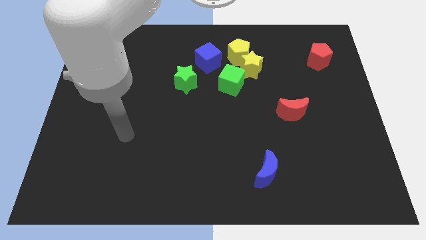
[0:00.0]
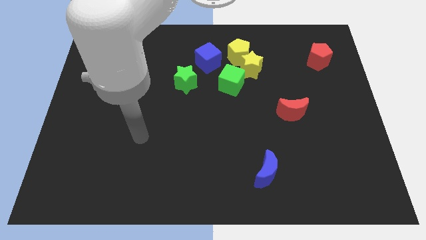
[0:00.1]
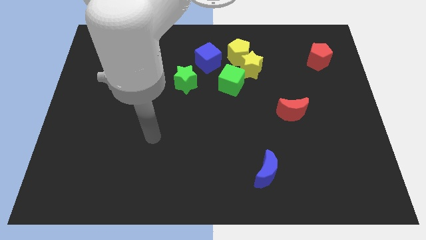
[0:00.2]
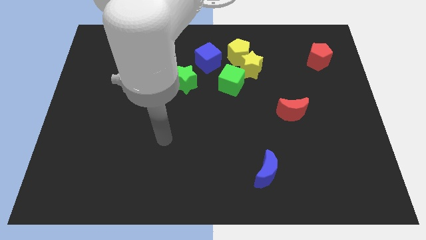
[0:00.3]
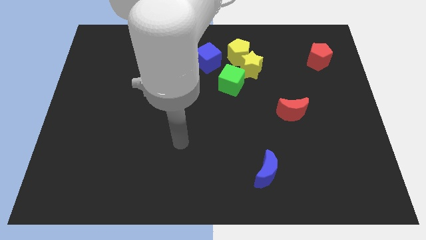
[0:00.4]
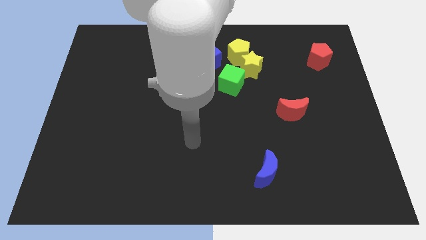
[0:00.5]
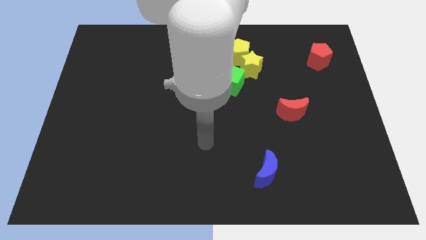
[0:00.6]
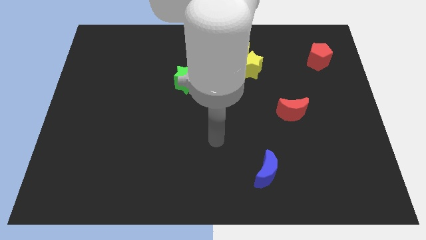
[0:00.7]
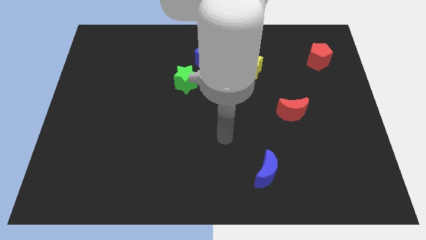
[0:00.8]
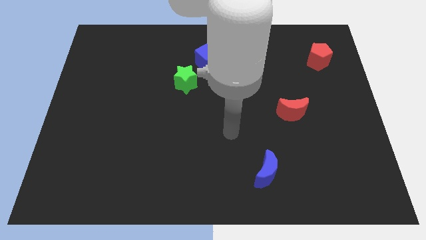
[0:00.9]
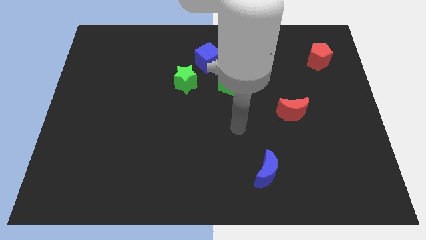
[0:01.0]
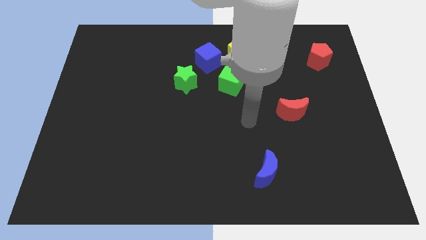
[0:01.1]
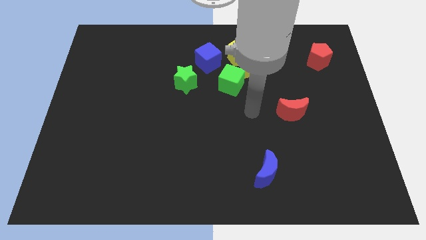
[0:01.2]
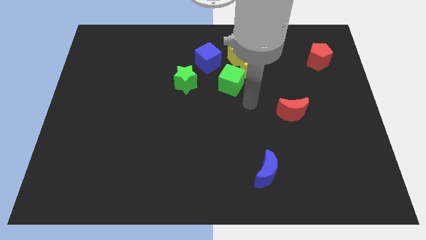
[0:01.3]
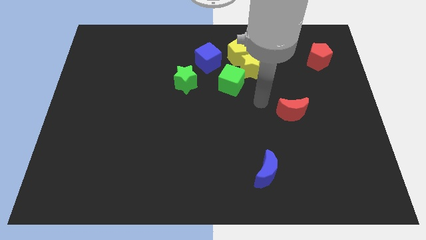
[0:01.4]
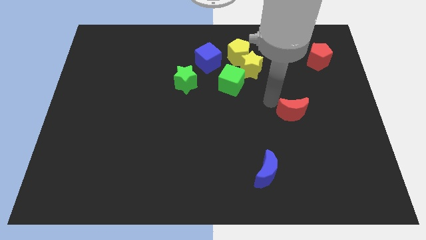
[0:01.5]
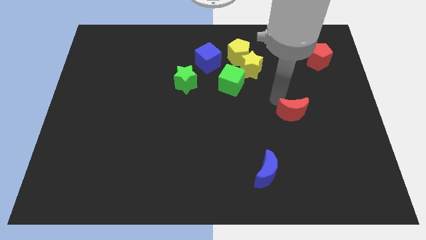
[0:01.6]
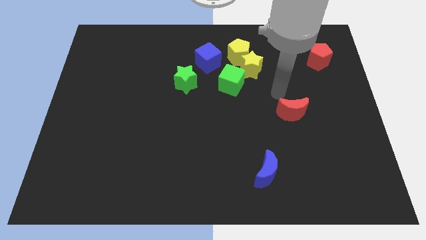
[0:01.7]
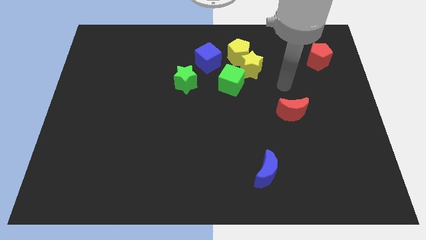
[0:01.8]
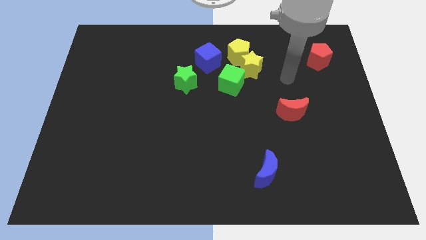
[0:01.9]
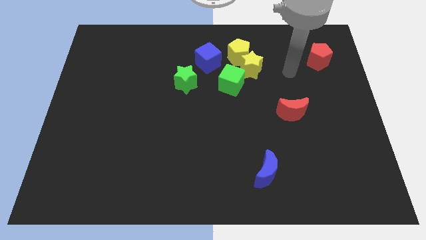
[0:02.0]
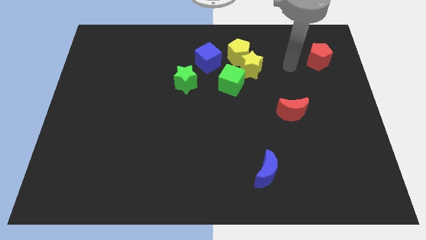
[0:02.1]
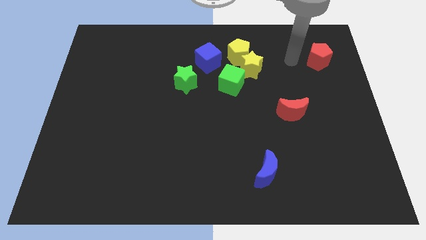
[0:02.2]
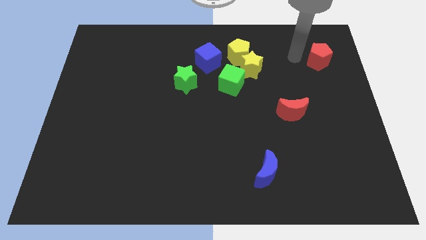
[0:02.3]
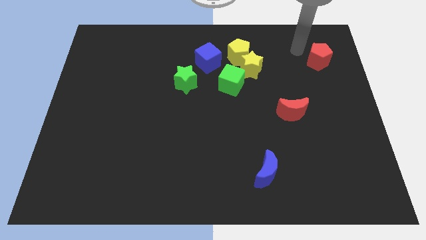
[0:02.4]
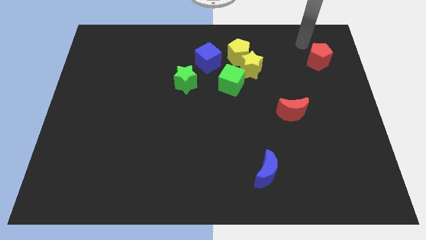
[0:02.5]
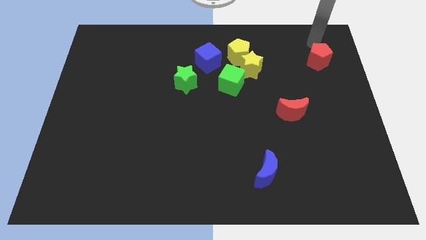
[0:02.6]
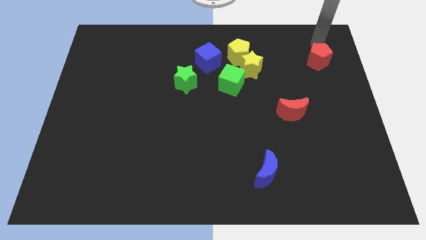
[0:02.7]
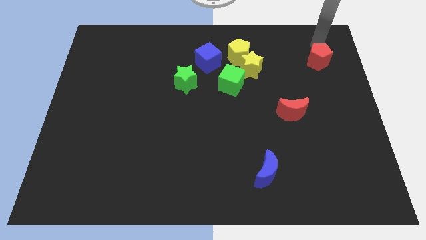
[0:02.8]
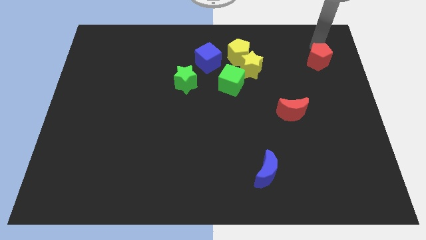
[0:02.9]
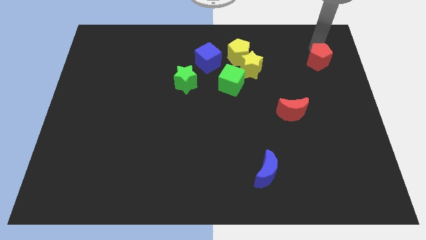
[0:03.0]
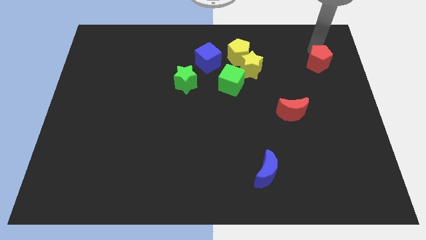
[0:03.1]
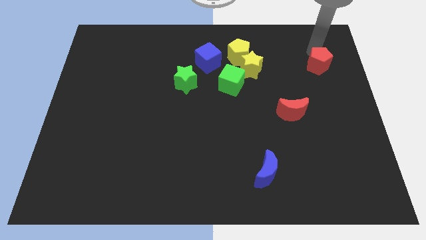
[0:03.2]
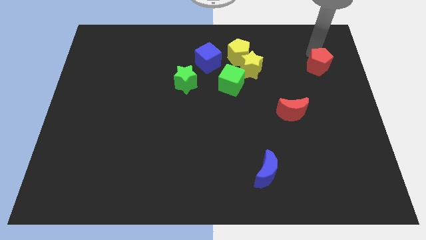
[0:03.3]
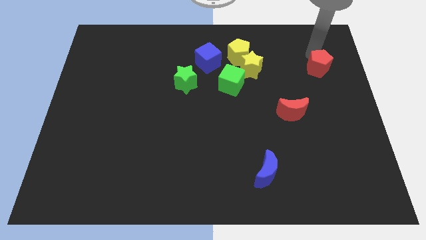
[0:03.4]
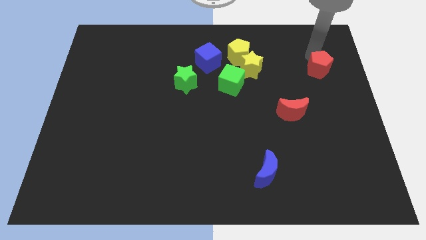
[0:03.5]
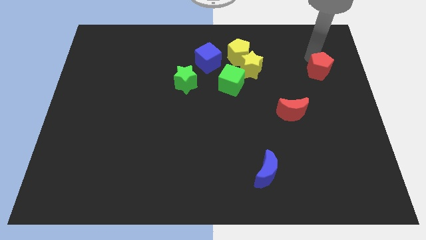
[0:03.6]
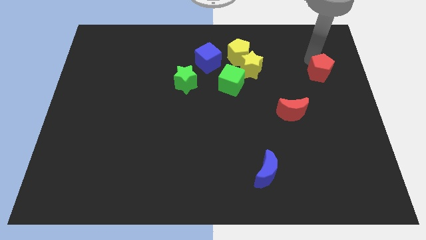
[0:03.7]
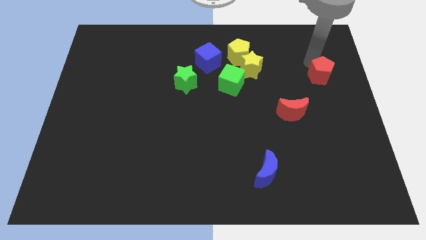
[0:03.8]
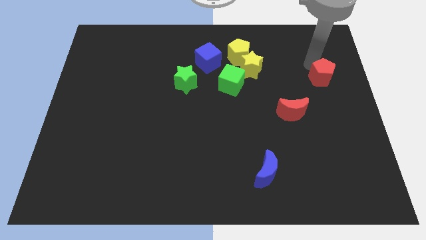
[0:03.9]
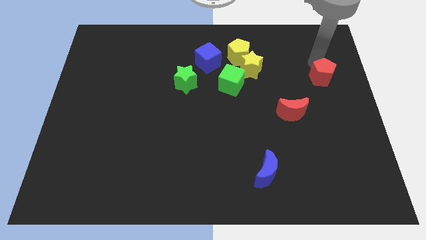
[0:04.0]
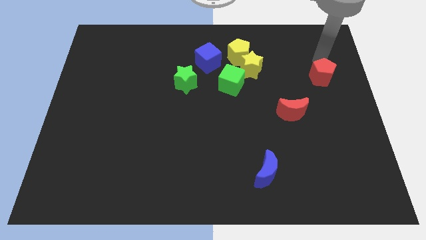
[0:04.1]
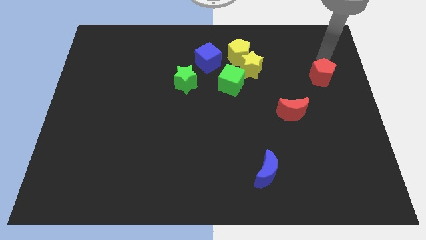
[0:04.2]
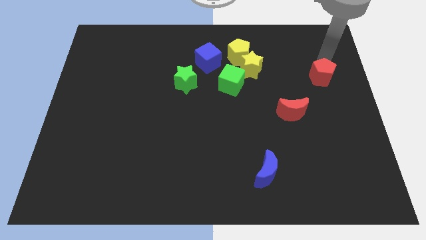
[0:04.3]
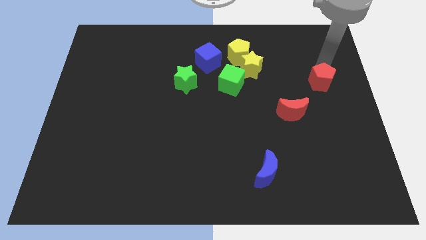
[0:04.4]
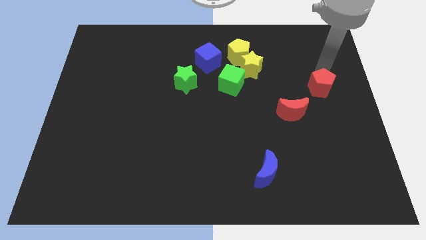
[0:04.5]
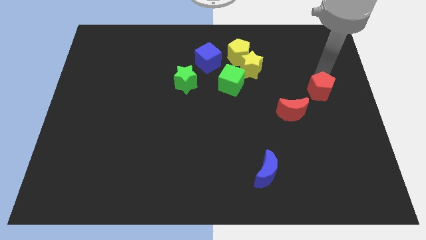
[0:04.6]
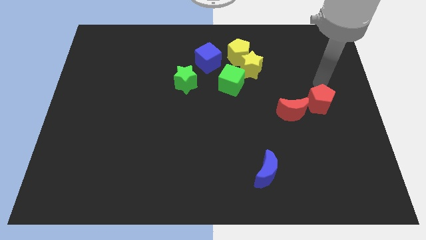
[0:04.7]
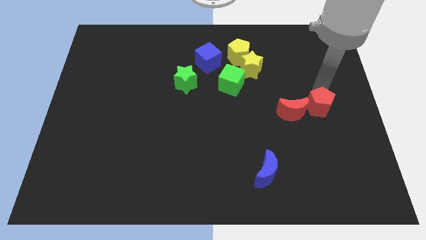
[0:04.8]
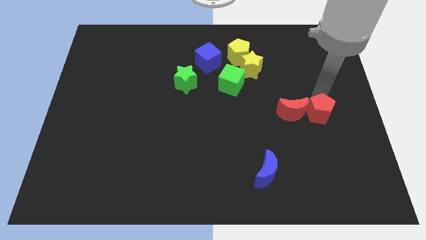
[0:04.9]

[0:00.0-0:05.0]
slide the red pentagon to the bottom right of the red moon

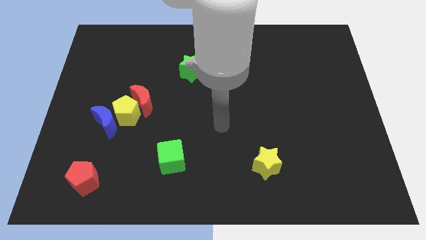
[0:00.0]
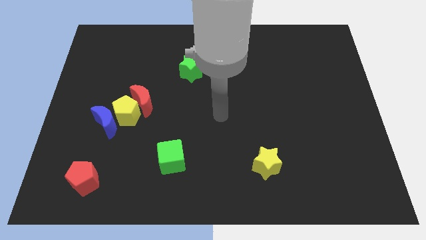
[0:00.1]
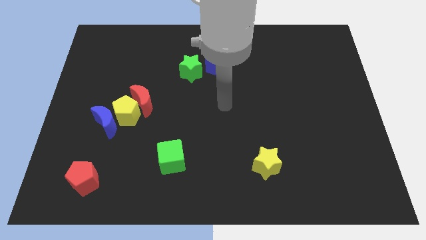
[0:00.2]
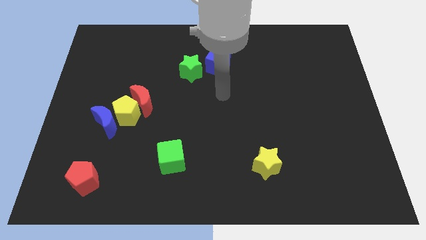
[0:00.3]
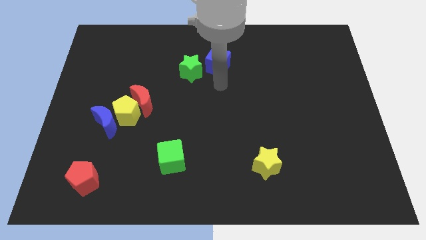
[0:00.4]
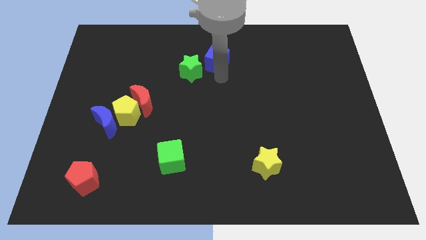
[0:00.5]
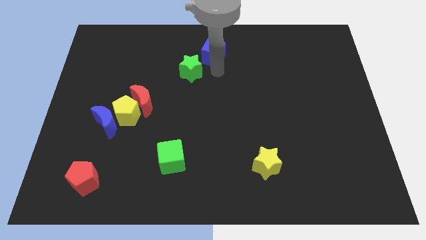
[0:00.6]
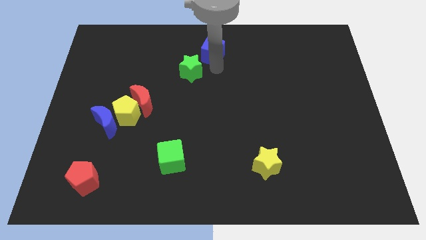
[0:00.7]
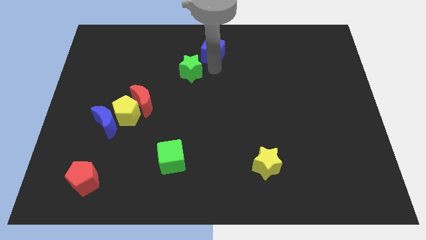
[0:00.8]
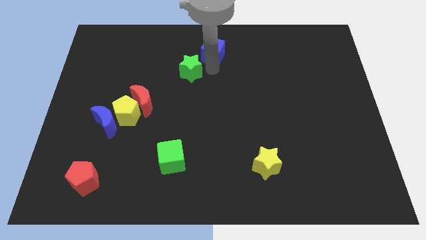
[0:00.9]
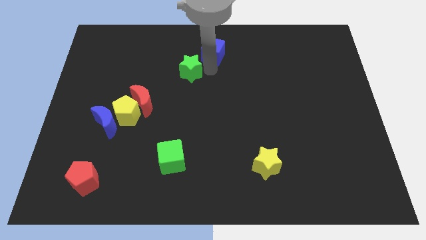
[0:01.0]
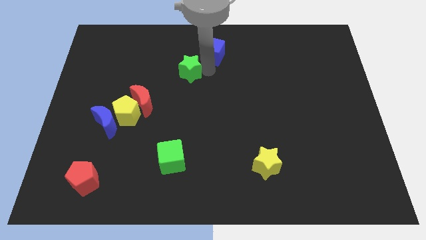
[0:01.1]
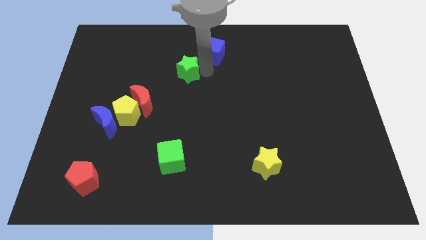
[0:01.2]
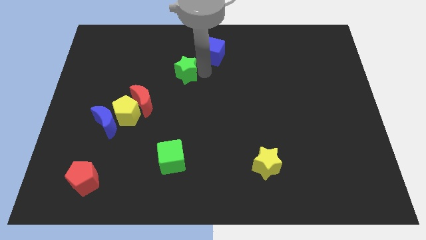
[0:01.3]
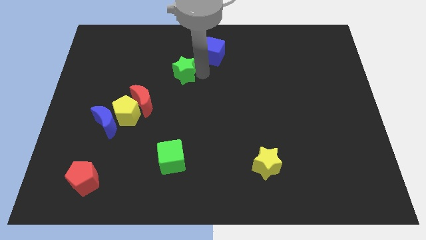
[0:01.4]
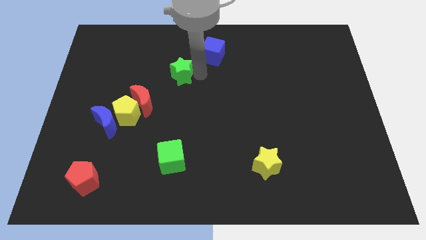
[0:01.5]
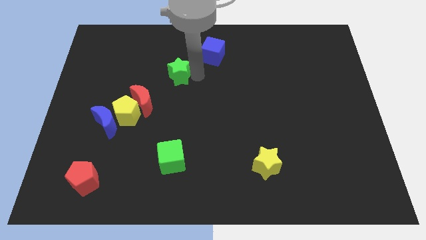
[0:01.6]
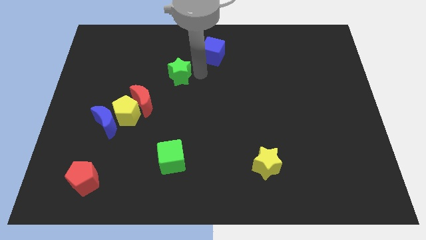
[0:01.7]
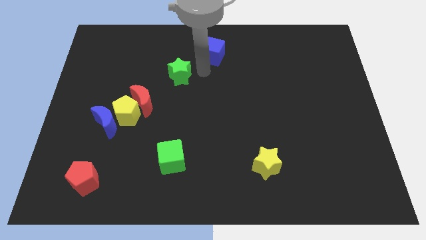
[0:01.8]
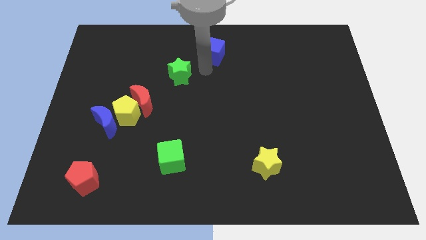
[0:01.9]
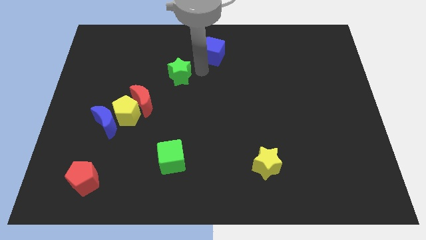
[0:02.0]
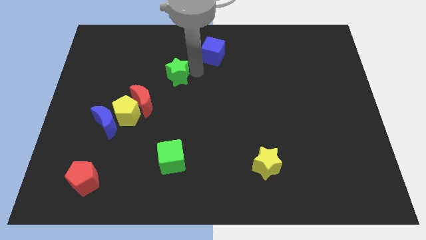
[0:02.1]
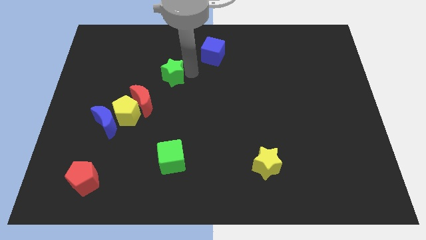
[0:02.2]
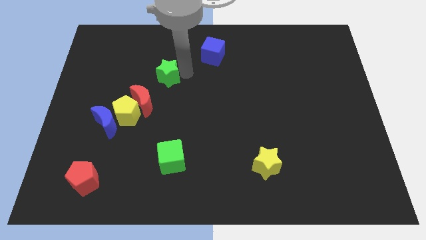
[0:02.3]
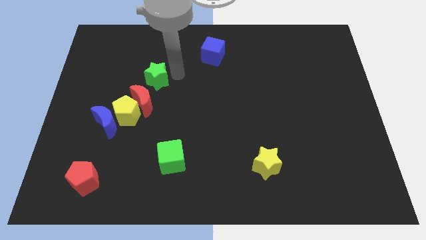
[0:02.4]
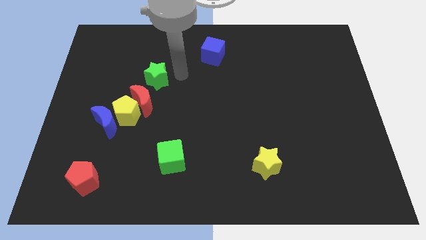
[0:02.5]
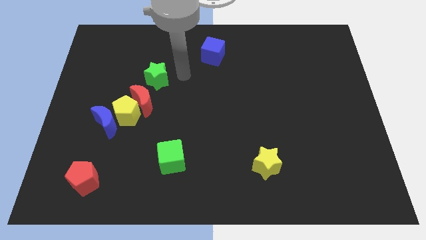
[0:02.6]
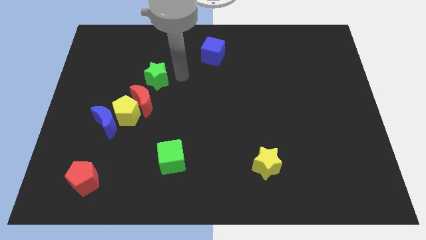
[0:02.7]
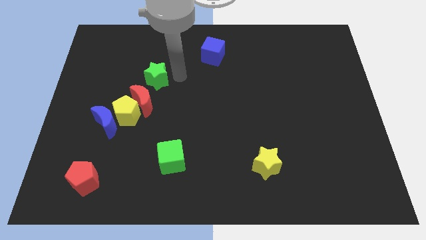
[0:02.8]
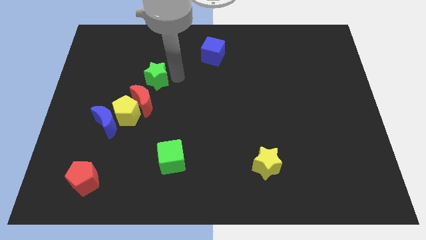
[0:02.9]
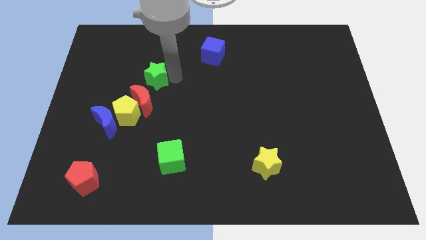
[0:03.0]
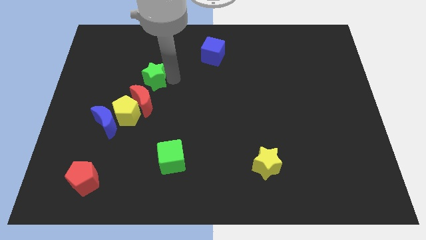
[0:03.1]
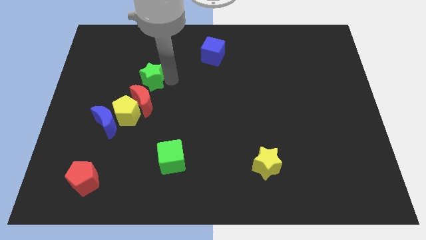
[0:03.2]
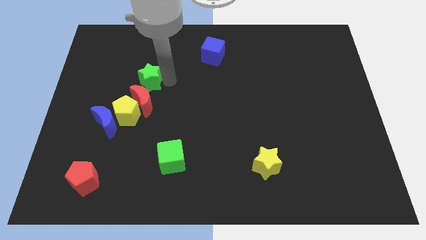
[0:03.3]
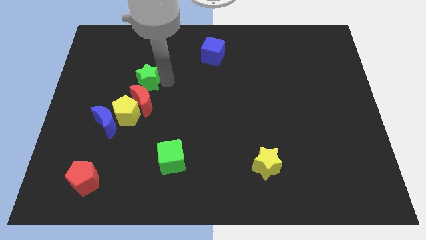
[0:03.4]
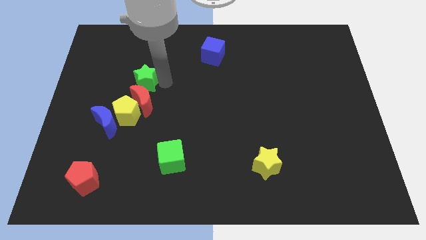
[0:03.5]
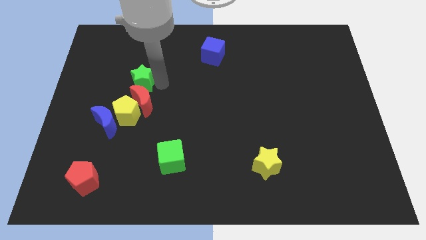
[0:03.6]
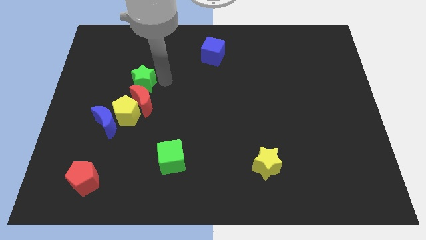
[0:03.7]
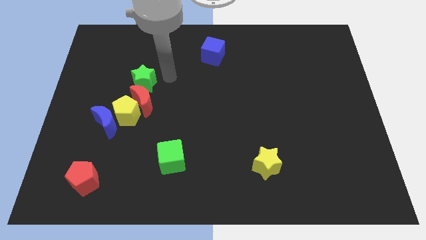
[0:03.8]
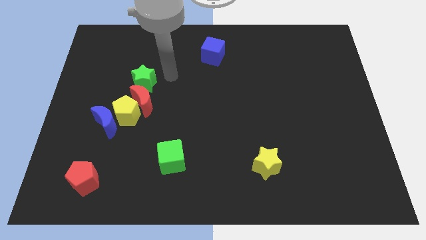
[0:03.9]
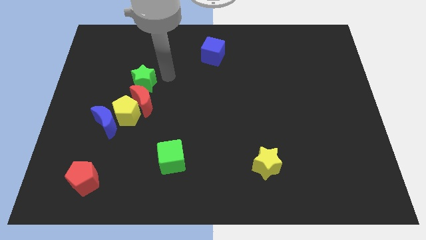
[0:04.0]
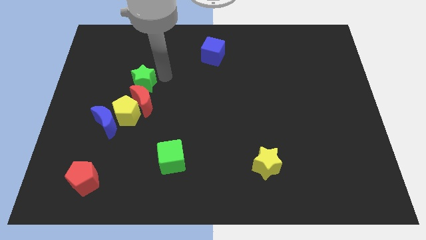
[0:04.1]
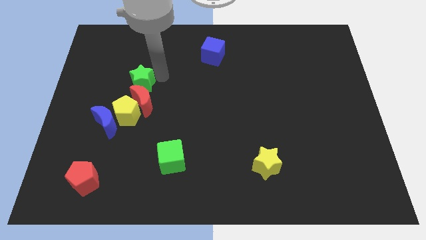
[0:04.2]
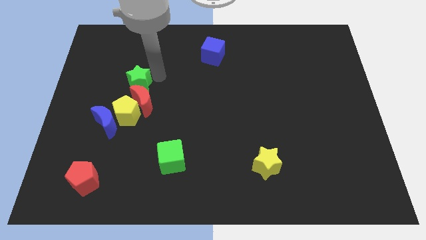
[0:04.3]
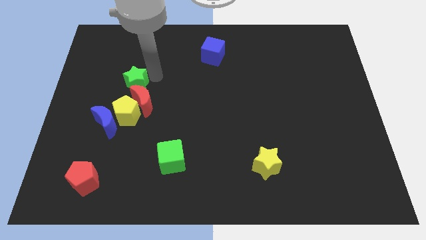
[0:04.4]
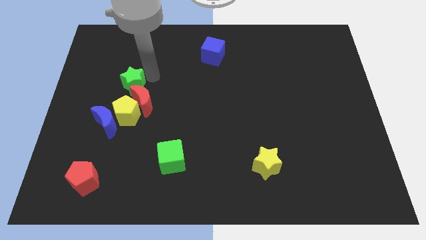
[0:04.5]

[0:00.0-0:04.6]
slide the green star to the top of the blue moon
